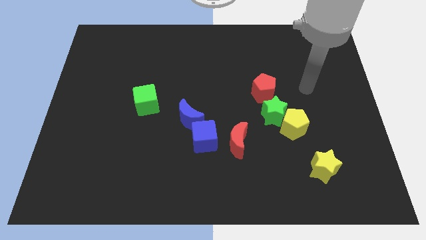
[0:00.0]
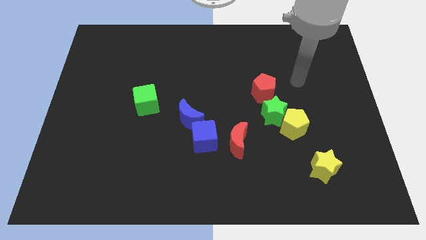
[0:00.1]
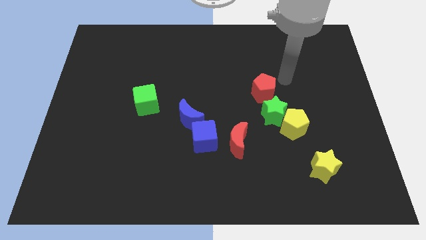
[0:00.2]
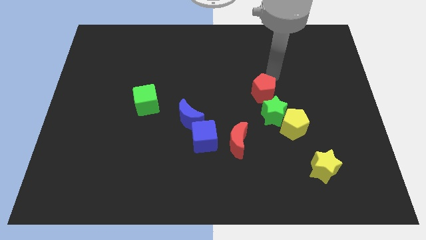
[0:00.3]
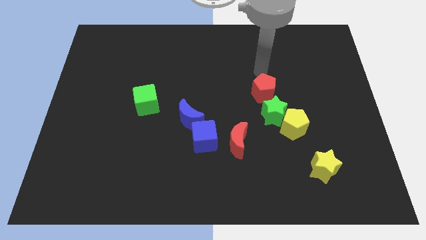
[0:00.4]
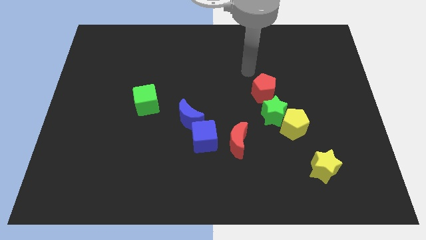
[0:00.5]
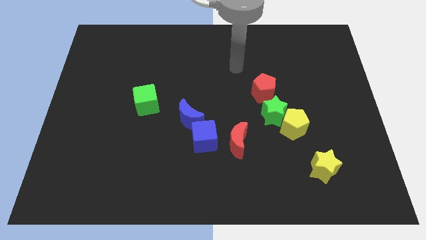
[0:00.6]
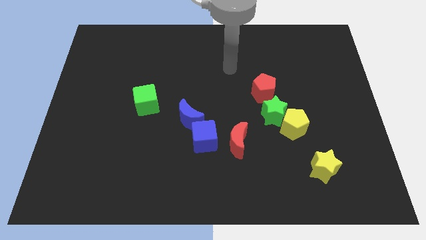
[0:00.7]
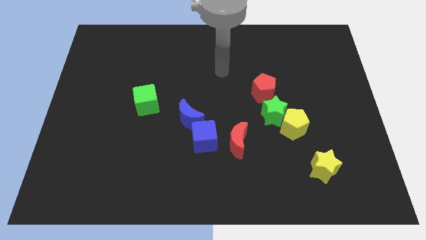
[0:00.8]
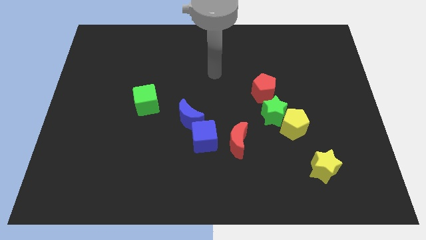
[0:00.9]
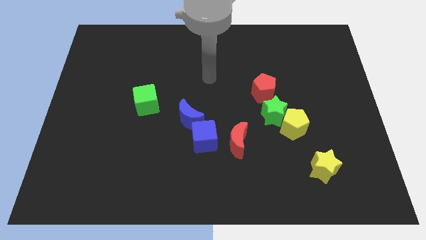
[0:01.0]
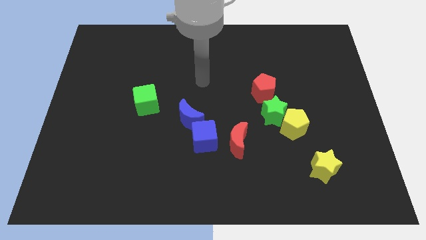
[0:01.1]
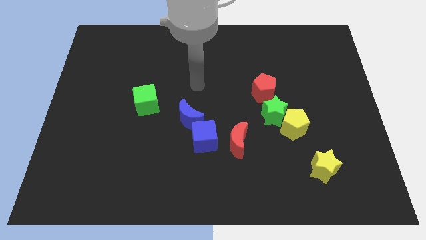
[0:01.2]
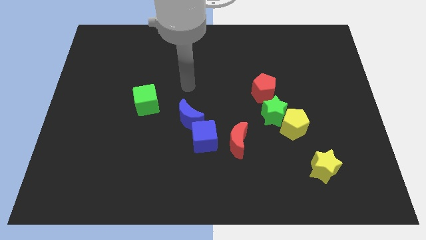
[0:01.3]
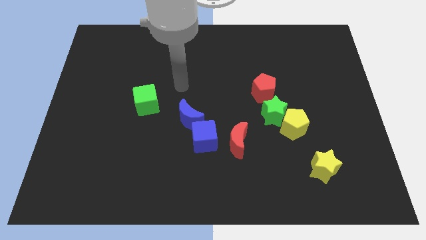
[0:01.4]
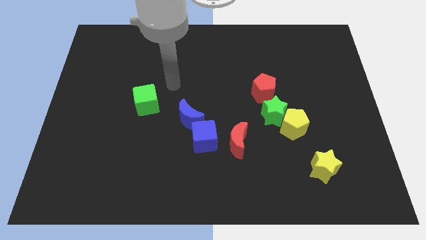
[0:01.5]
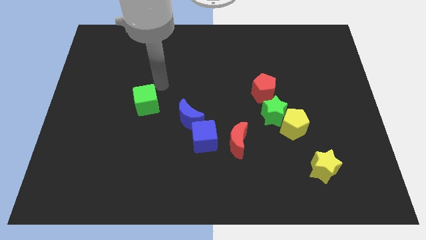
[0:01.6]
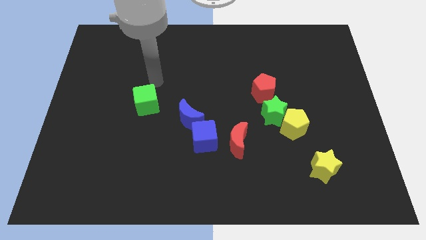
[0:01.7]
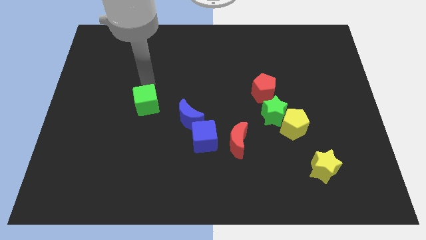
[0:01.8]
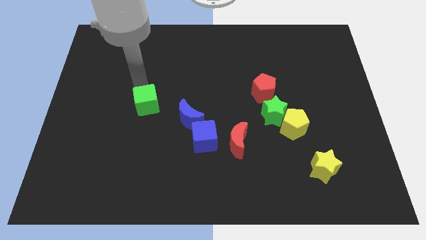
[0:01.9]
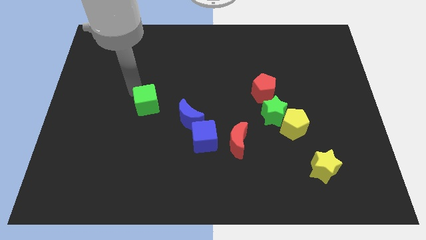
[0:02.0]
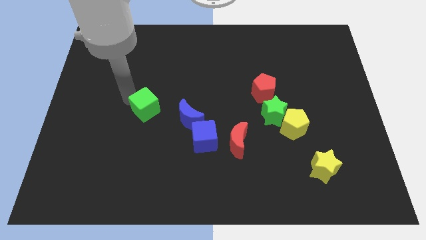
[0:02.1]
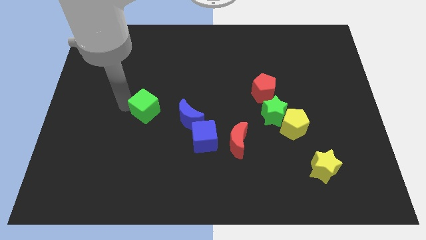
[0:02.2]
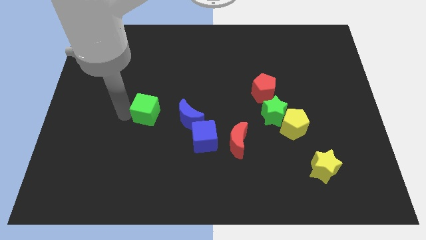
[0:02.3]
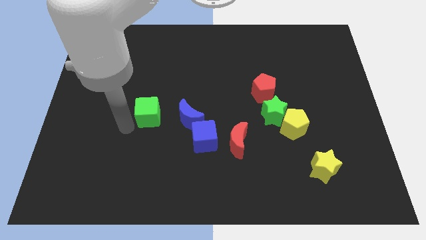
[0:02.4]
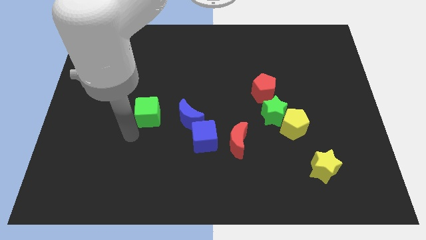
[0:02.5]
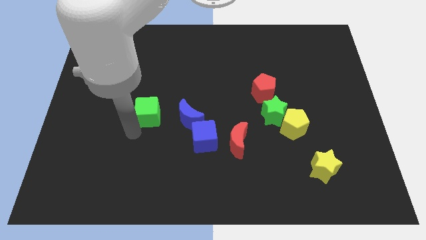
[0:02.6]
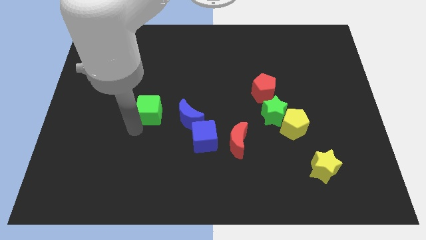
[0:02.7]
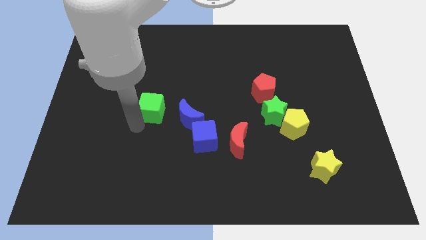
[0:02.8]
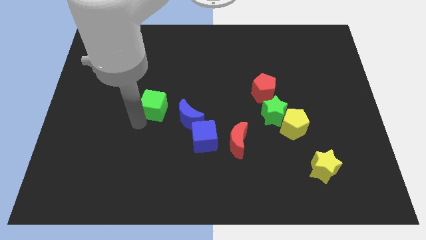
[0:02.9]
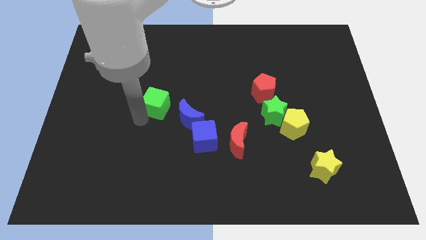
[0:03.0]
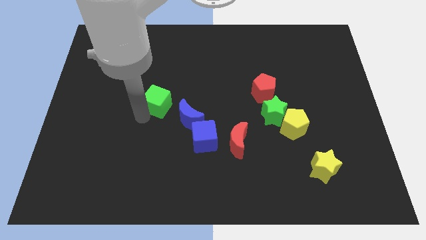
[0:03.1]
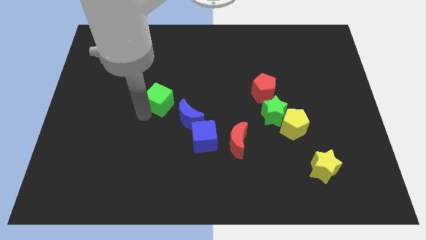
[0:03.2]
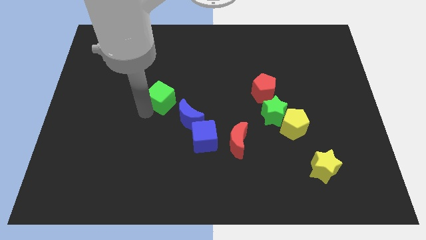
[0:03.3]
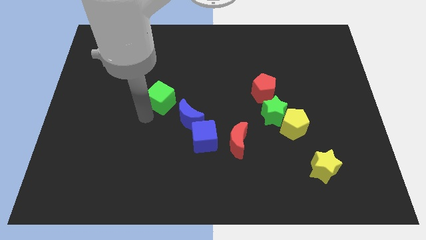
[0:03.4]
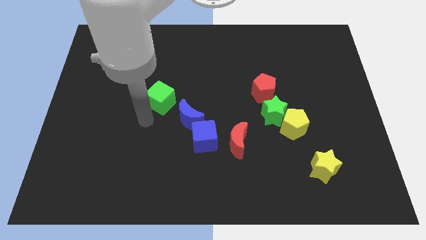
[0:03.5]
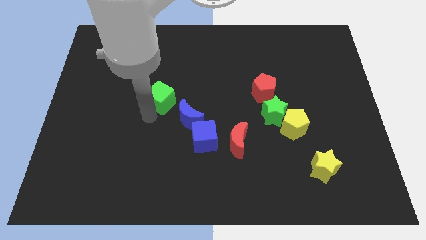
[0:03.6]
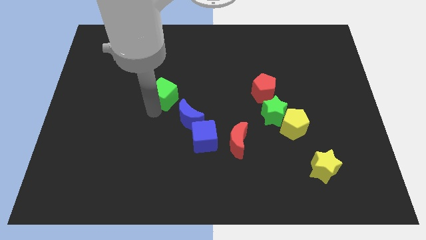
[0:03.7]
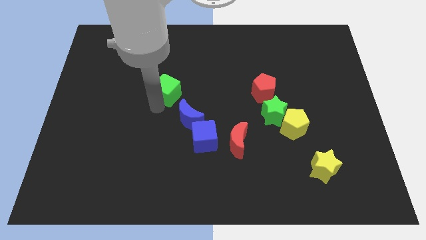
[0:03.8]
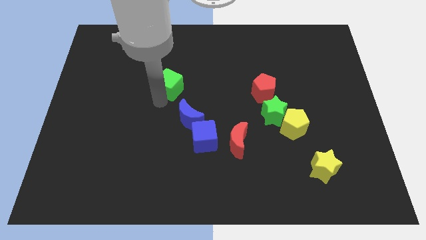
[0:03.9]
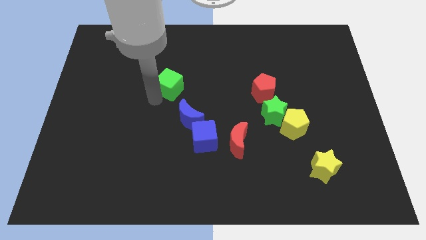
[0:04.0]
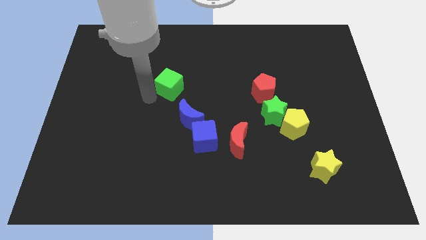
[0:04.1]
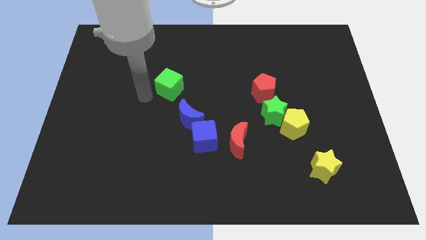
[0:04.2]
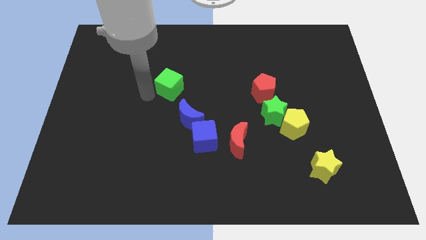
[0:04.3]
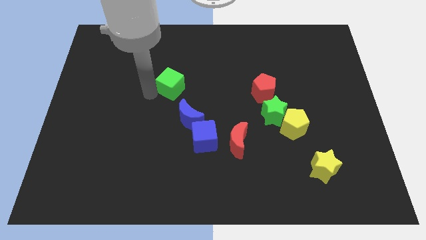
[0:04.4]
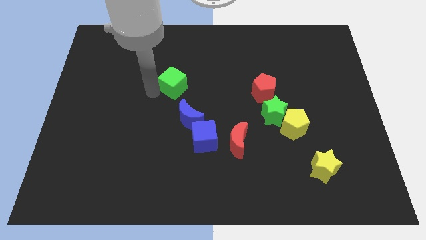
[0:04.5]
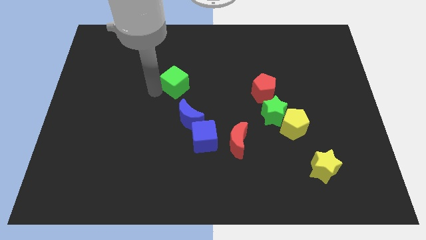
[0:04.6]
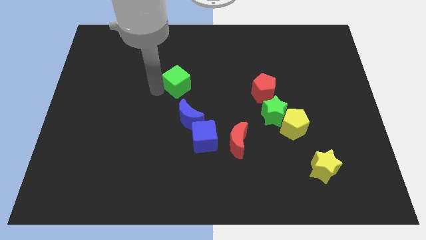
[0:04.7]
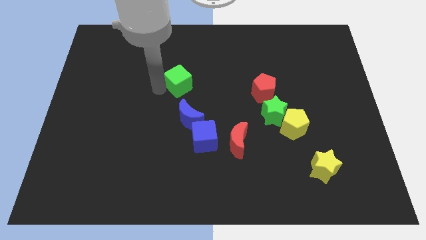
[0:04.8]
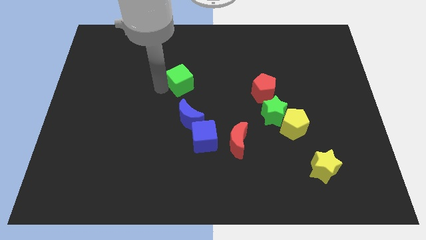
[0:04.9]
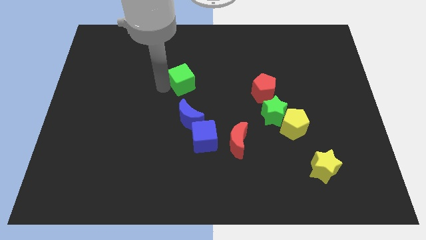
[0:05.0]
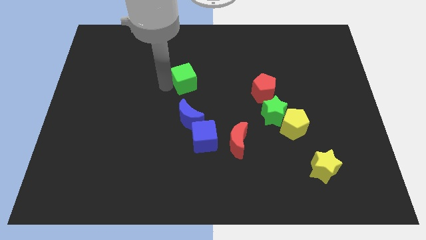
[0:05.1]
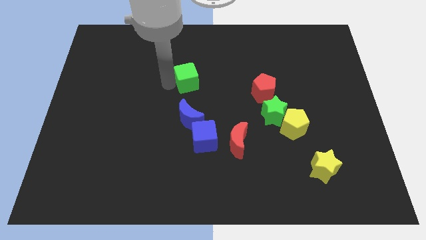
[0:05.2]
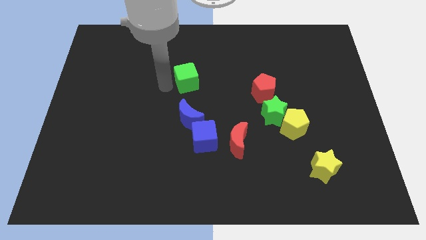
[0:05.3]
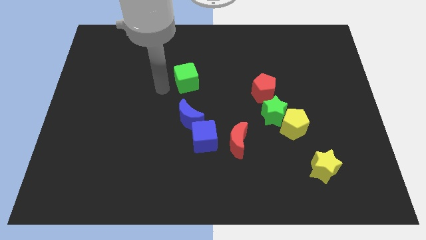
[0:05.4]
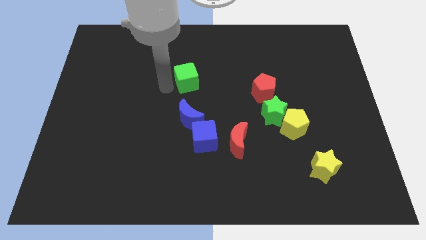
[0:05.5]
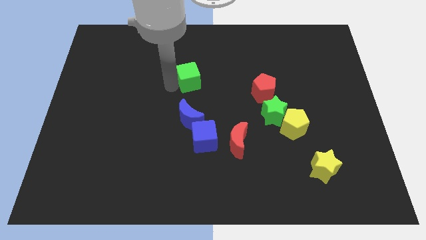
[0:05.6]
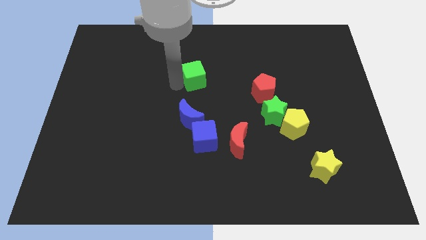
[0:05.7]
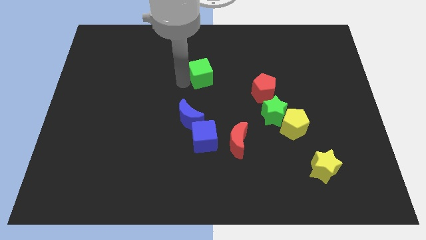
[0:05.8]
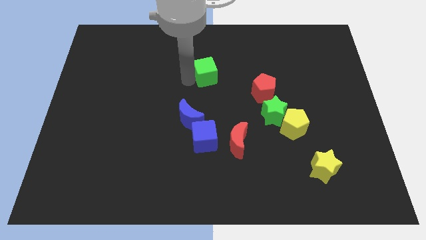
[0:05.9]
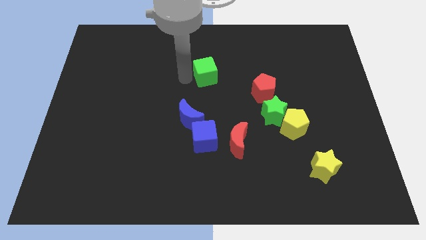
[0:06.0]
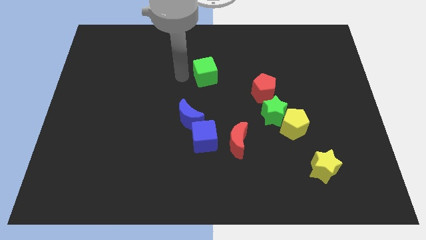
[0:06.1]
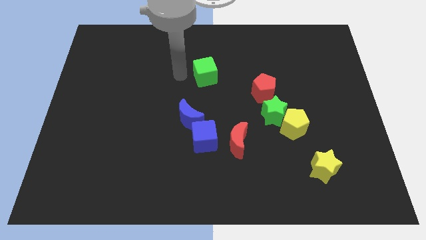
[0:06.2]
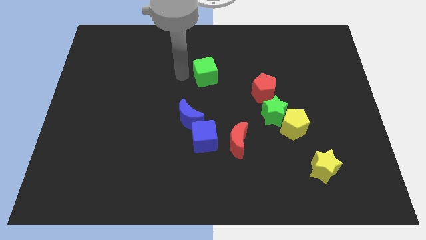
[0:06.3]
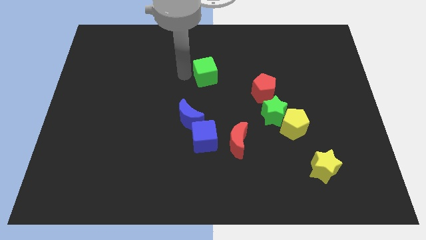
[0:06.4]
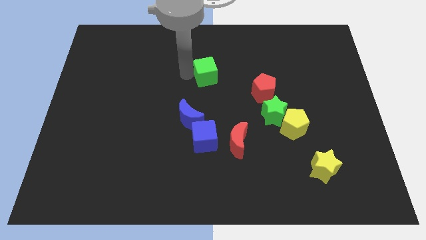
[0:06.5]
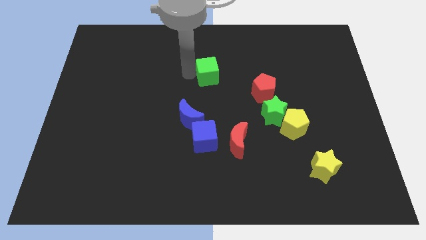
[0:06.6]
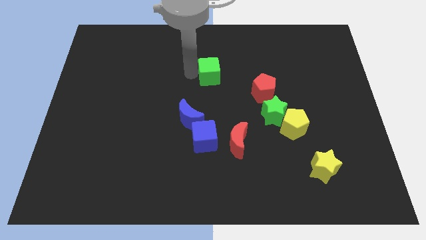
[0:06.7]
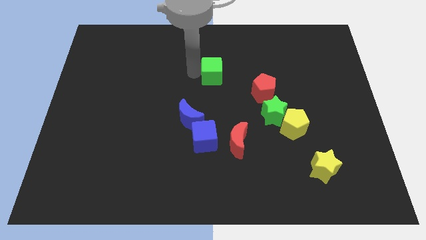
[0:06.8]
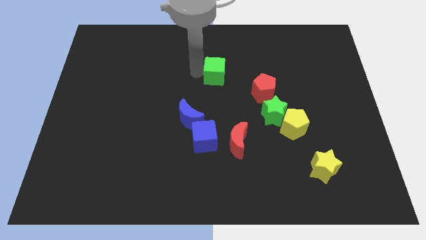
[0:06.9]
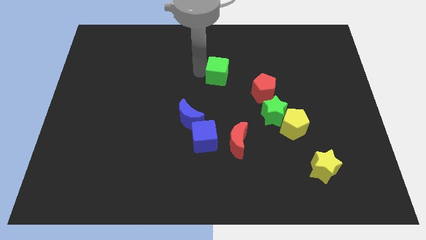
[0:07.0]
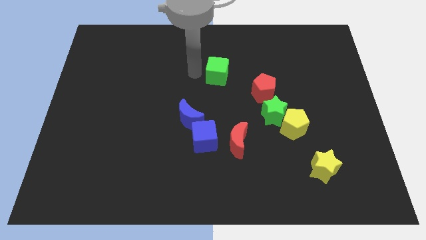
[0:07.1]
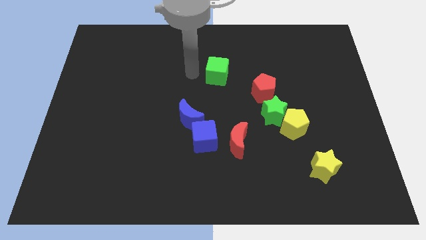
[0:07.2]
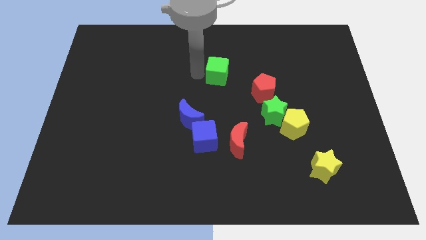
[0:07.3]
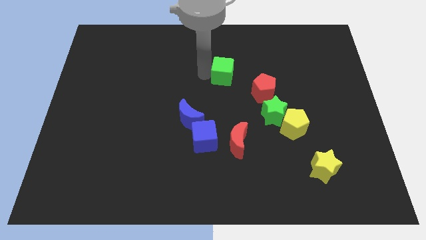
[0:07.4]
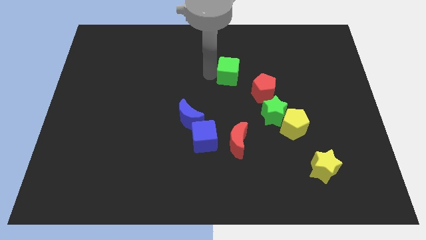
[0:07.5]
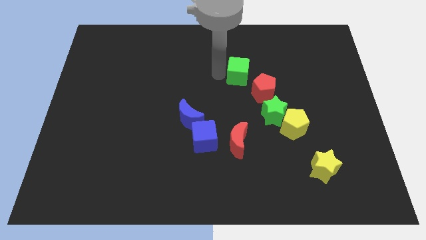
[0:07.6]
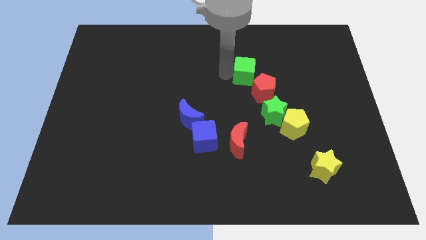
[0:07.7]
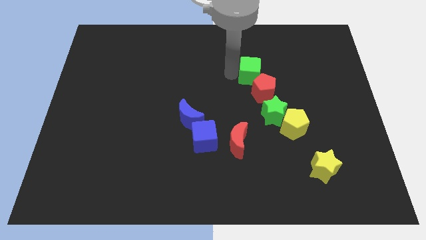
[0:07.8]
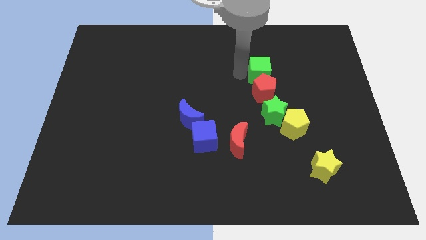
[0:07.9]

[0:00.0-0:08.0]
push the green cube to the top right side of the red pentagon

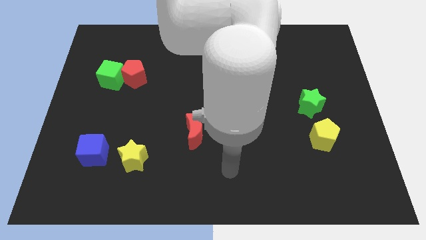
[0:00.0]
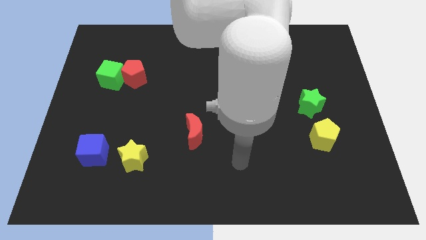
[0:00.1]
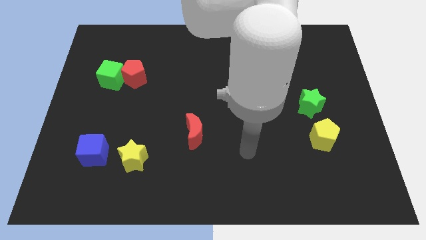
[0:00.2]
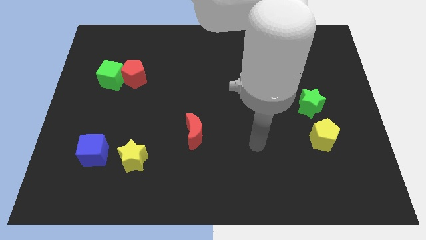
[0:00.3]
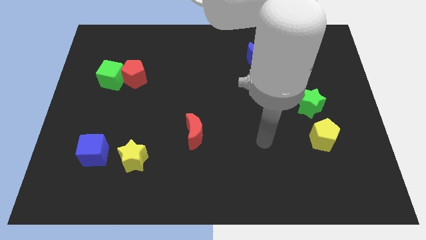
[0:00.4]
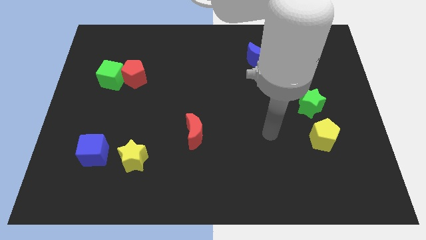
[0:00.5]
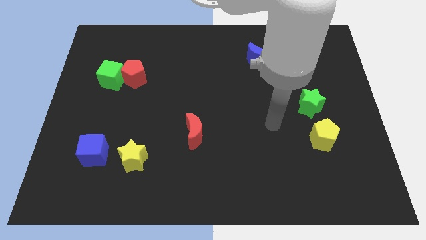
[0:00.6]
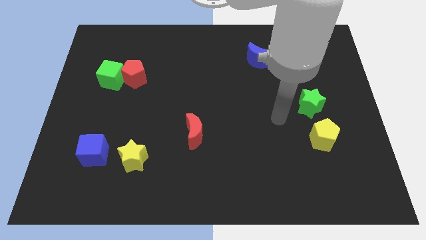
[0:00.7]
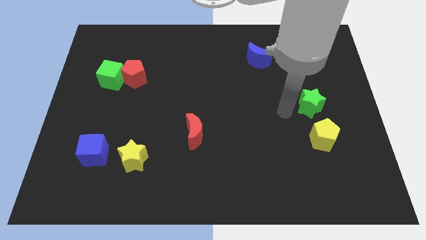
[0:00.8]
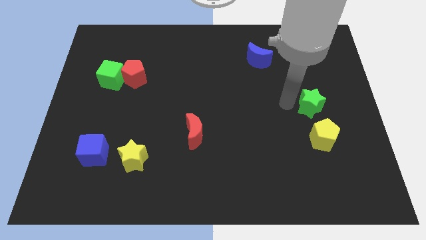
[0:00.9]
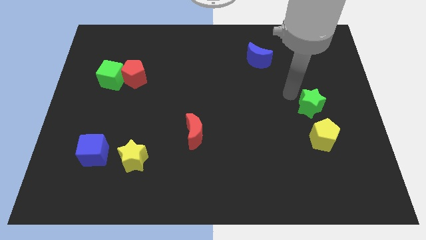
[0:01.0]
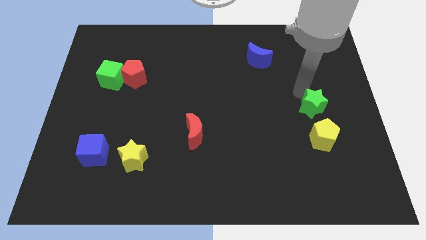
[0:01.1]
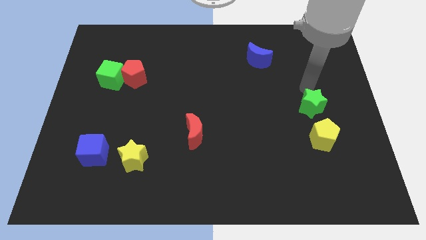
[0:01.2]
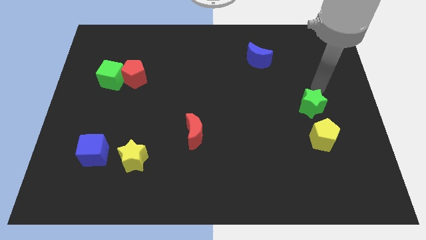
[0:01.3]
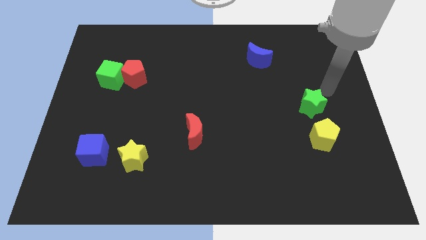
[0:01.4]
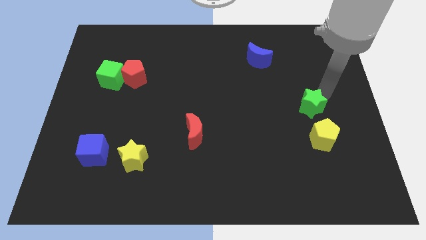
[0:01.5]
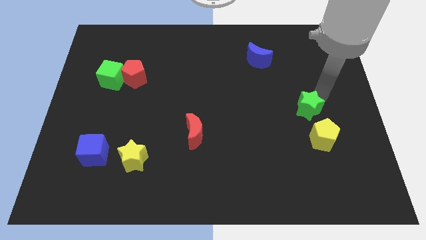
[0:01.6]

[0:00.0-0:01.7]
slide the green star to the top left of the yellow pentagon
